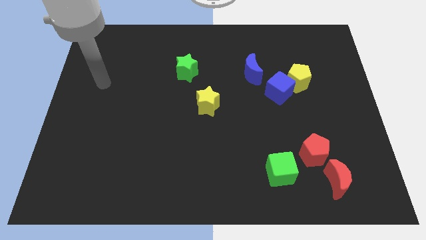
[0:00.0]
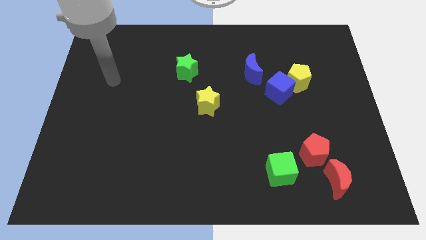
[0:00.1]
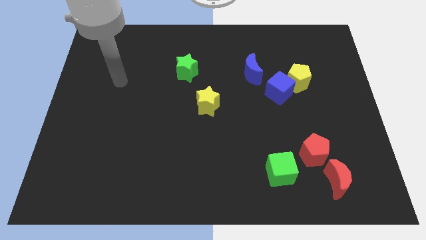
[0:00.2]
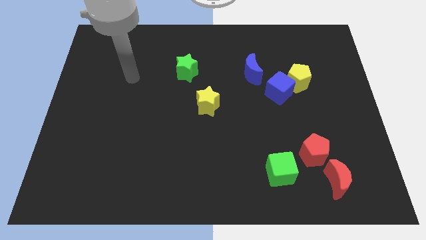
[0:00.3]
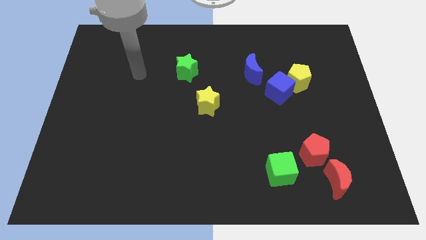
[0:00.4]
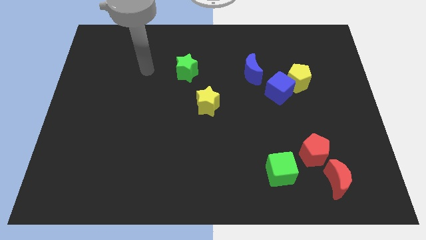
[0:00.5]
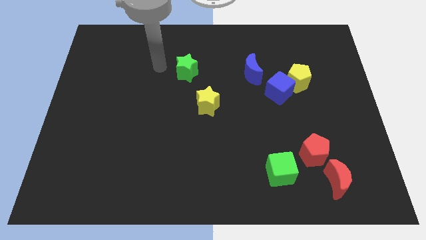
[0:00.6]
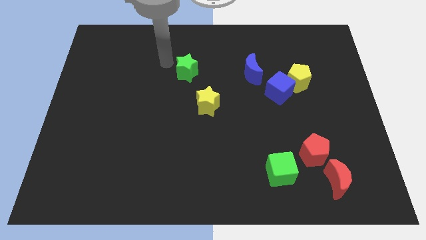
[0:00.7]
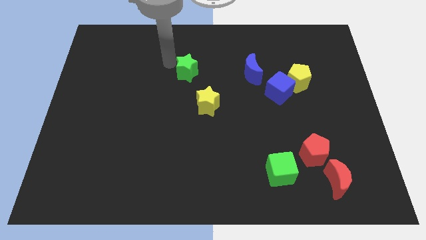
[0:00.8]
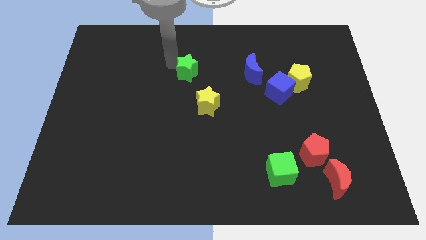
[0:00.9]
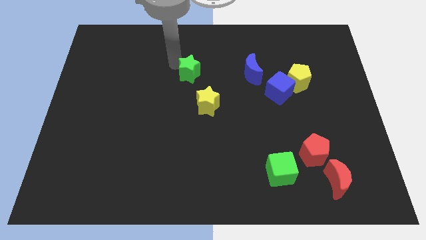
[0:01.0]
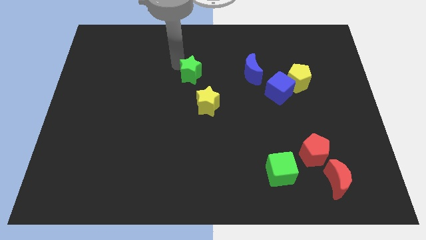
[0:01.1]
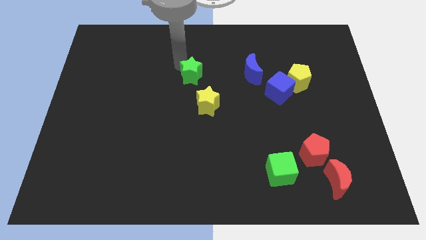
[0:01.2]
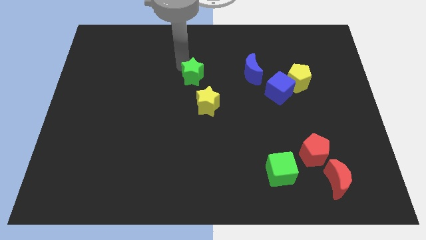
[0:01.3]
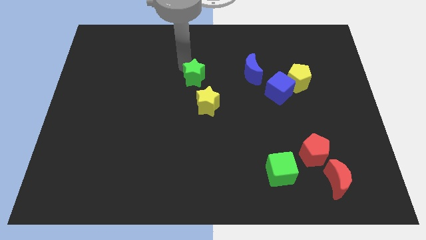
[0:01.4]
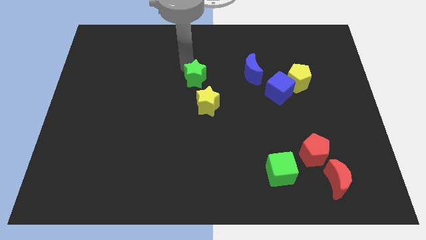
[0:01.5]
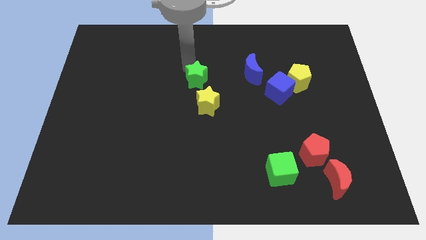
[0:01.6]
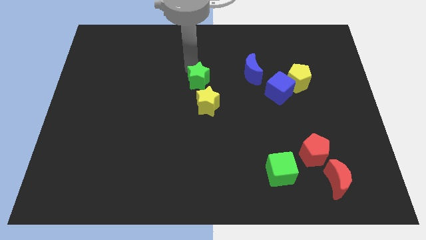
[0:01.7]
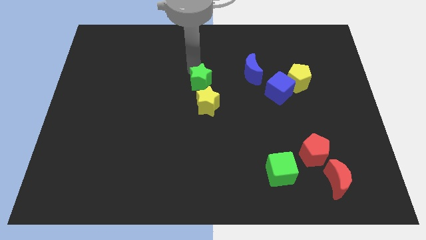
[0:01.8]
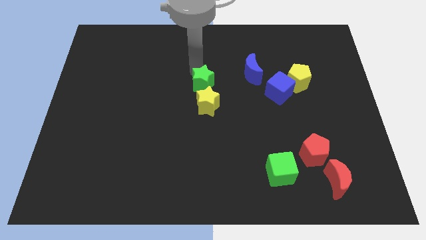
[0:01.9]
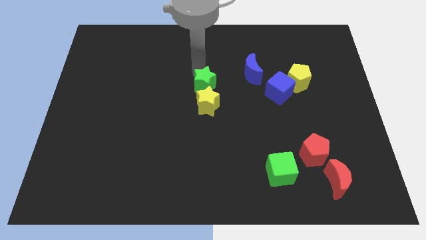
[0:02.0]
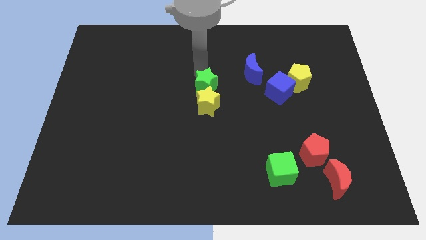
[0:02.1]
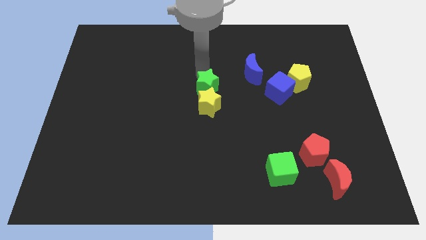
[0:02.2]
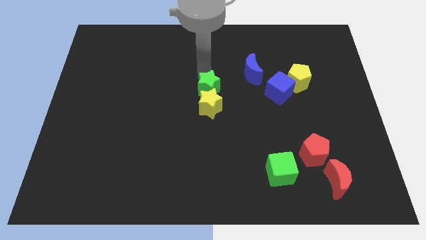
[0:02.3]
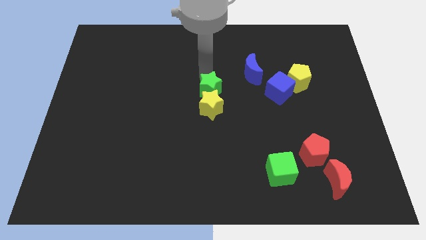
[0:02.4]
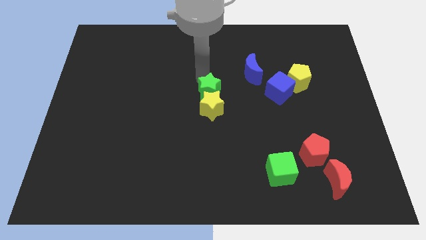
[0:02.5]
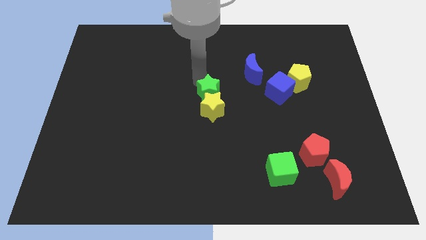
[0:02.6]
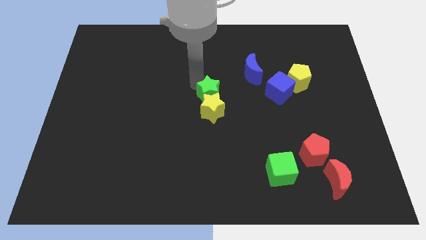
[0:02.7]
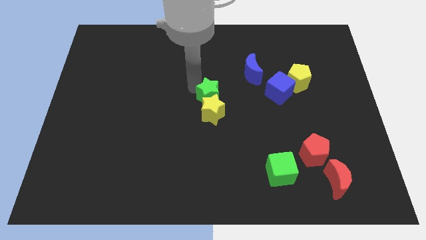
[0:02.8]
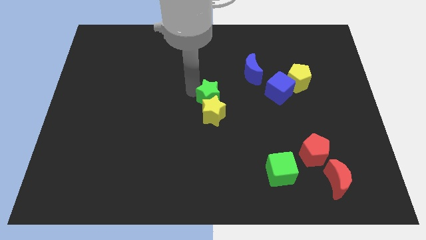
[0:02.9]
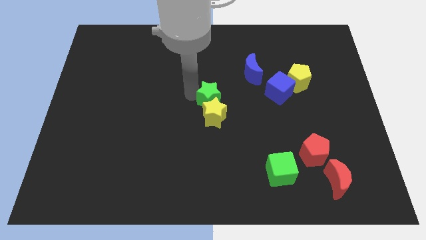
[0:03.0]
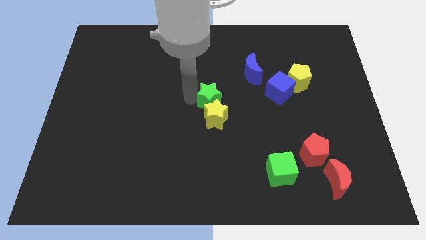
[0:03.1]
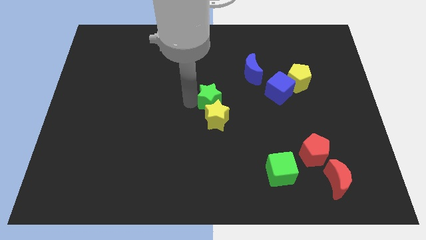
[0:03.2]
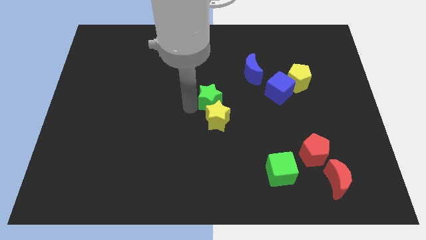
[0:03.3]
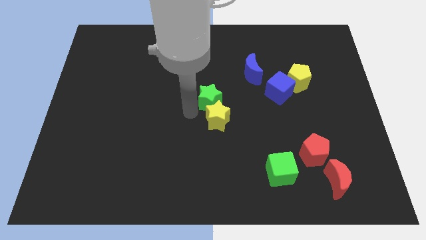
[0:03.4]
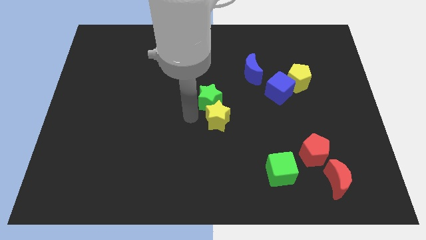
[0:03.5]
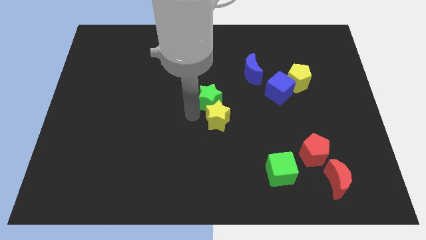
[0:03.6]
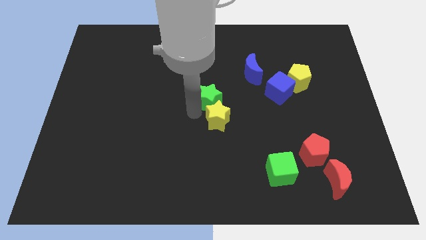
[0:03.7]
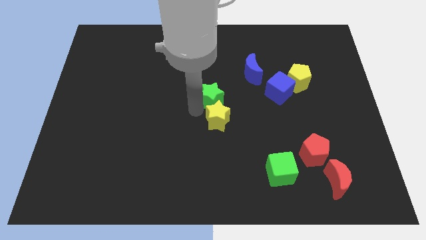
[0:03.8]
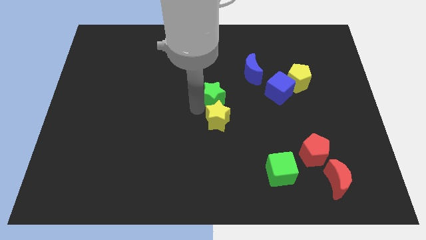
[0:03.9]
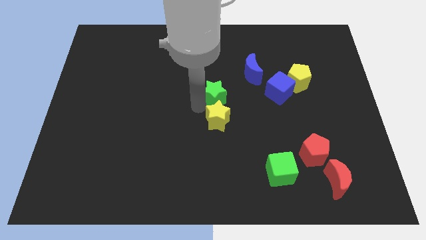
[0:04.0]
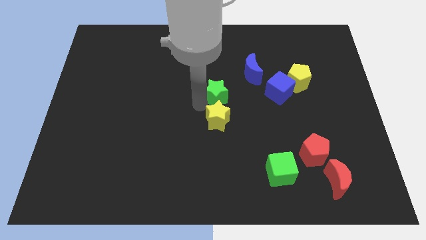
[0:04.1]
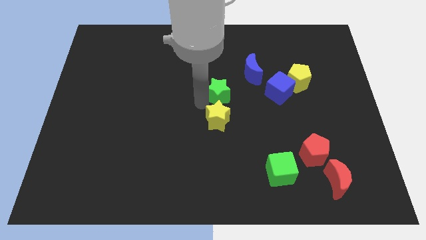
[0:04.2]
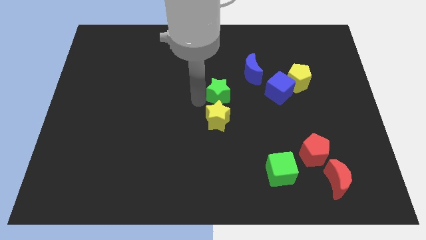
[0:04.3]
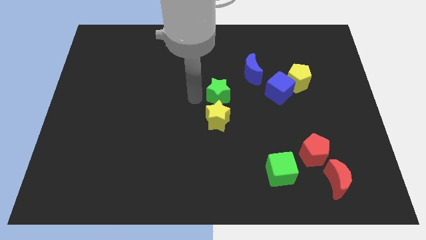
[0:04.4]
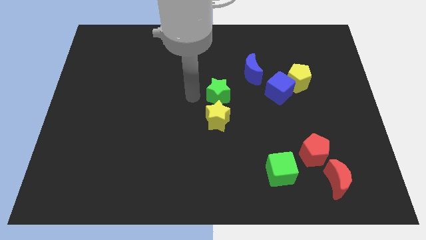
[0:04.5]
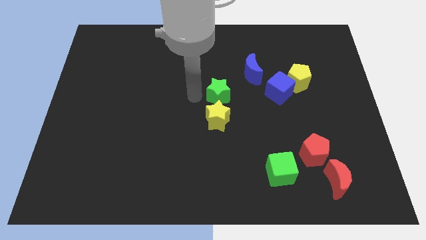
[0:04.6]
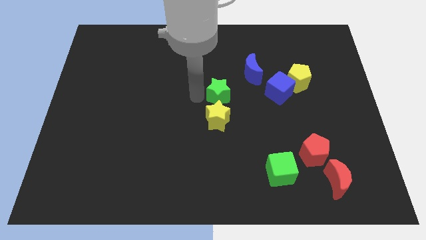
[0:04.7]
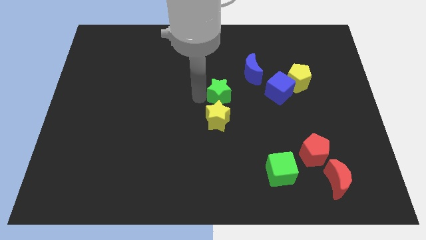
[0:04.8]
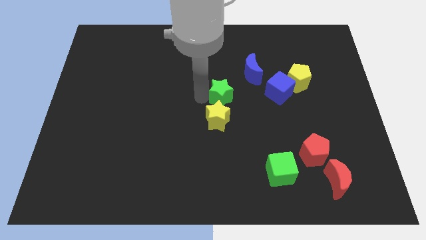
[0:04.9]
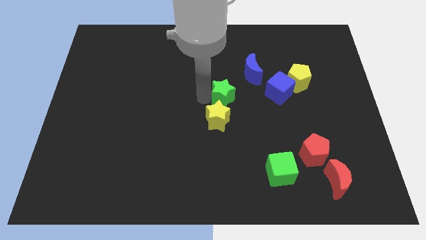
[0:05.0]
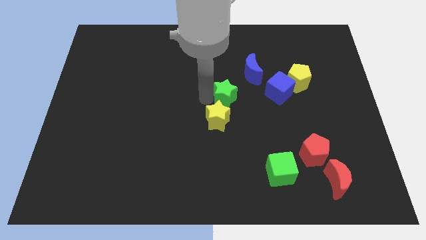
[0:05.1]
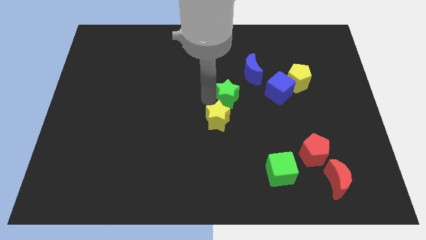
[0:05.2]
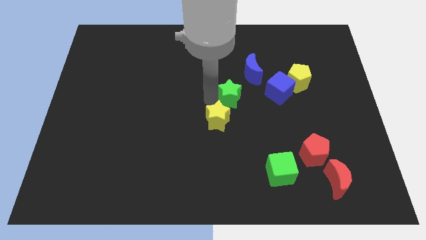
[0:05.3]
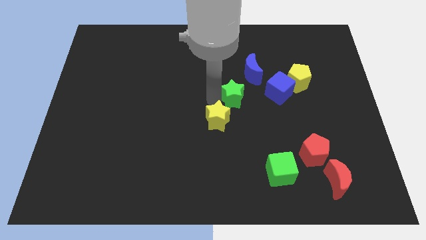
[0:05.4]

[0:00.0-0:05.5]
slide the green star to the bottom of the blue moon

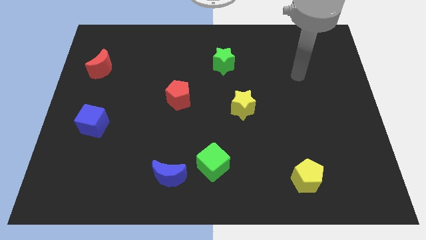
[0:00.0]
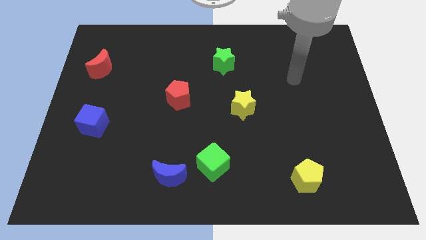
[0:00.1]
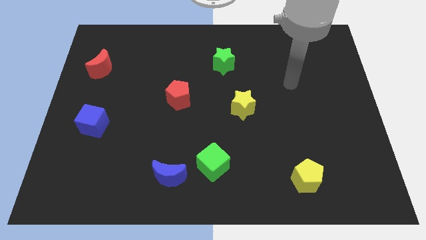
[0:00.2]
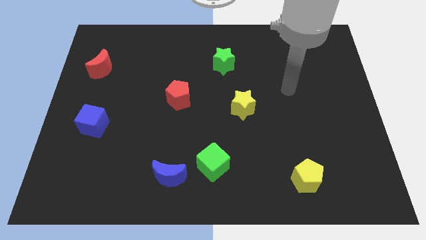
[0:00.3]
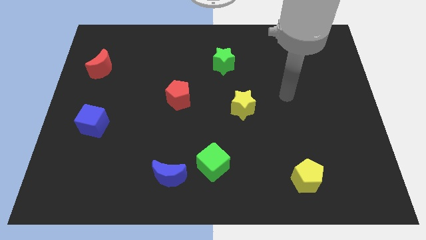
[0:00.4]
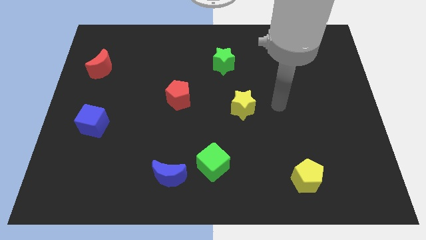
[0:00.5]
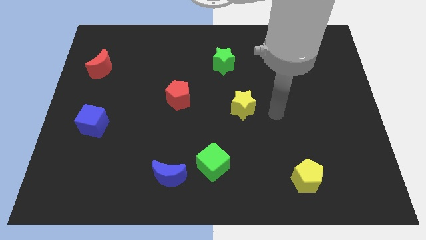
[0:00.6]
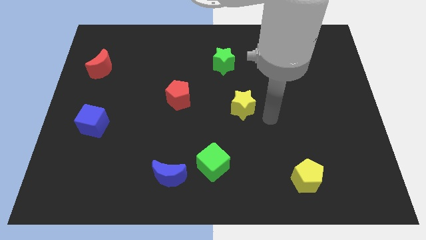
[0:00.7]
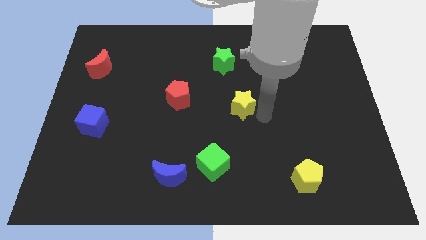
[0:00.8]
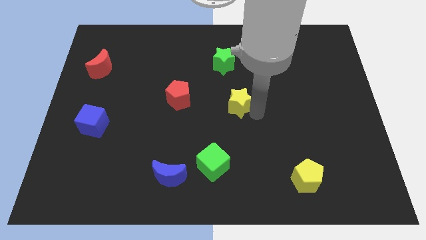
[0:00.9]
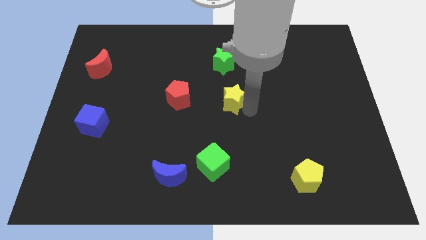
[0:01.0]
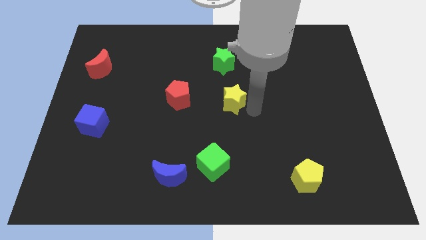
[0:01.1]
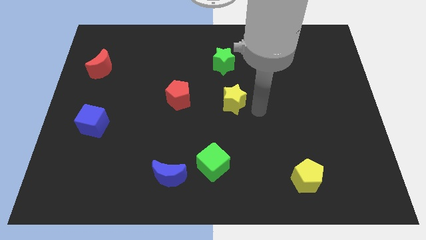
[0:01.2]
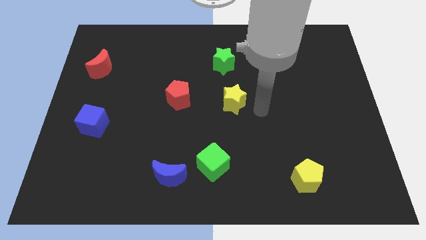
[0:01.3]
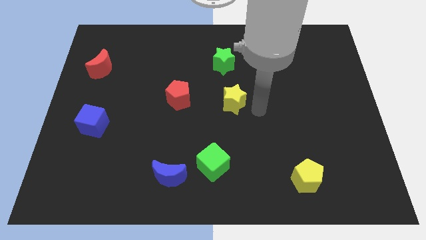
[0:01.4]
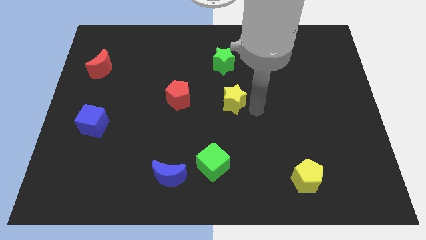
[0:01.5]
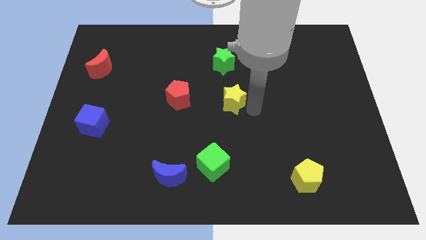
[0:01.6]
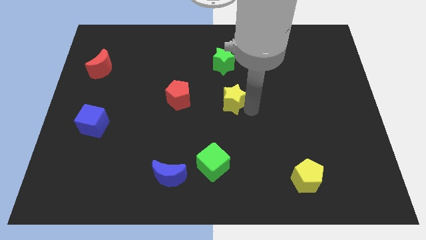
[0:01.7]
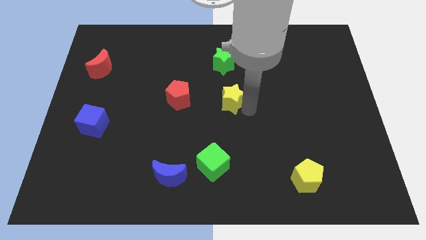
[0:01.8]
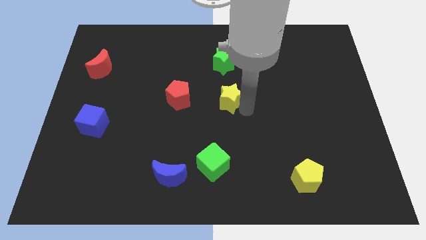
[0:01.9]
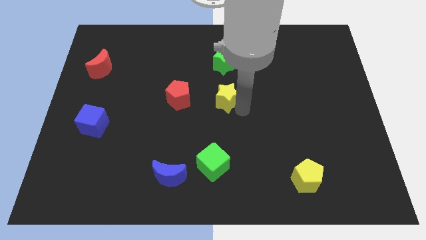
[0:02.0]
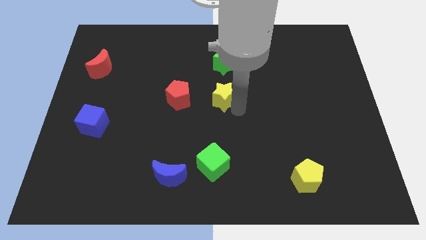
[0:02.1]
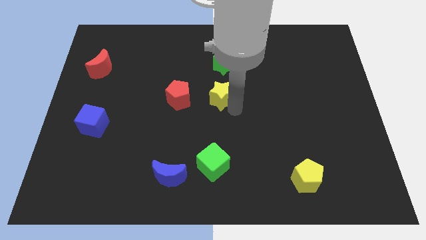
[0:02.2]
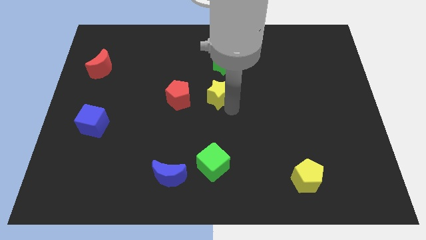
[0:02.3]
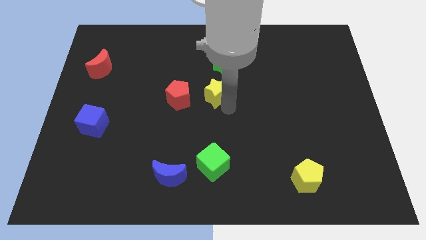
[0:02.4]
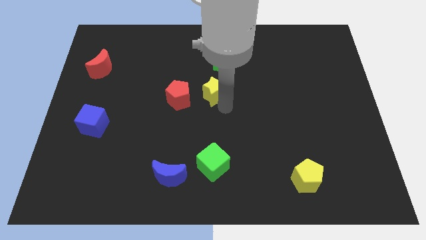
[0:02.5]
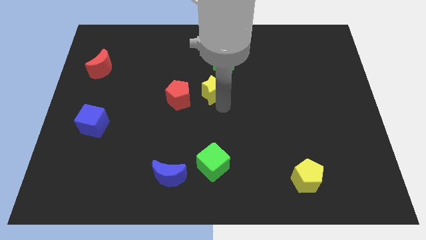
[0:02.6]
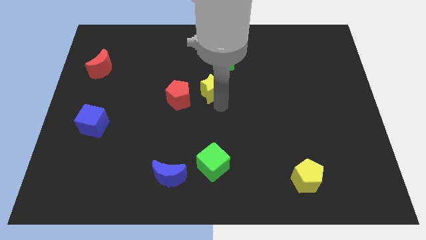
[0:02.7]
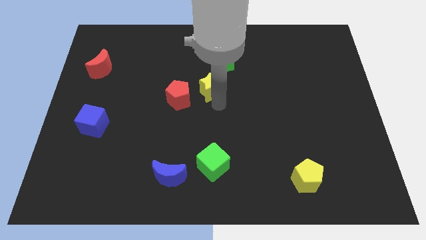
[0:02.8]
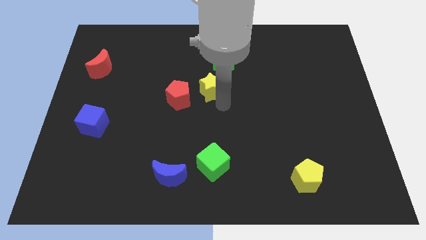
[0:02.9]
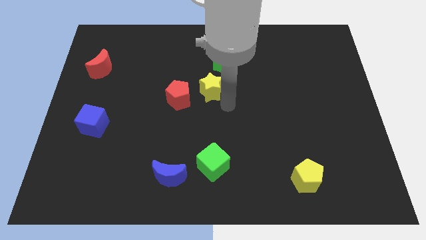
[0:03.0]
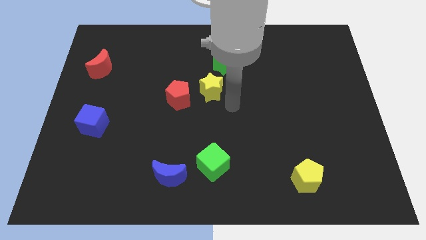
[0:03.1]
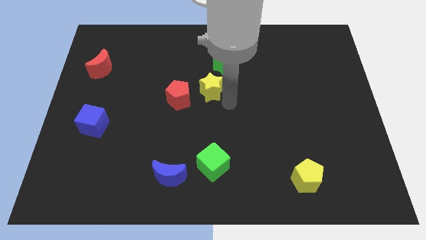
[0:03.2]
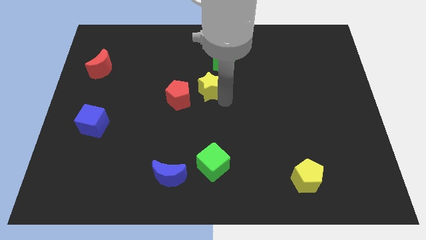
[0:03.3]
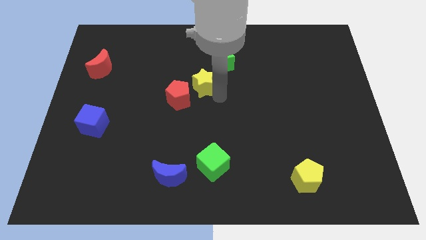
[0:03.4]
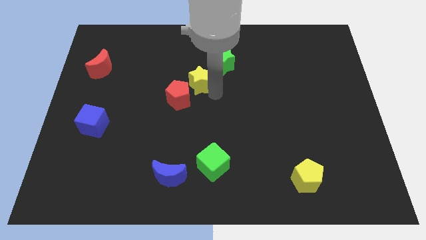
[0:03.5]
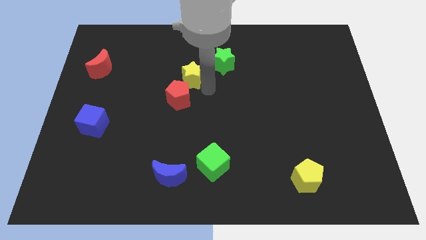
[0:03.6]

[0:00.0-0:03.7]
push the yellow star to the top side of the red pentagon
